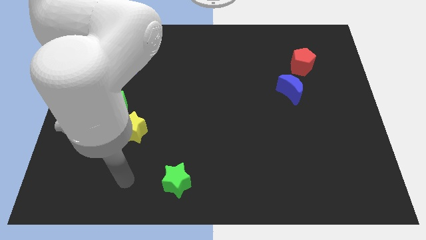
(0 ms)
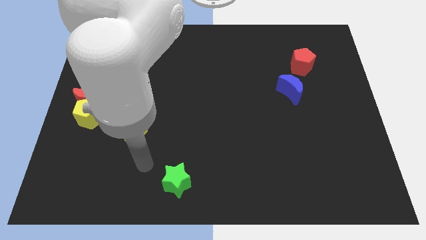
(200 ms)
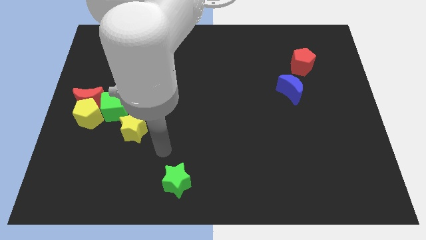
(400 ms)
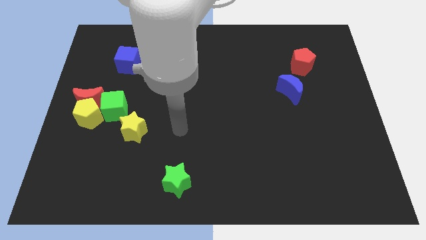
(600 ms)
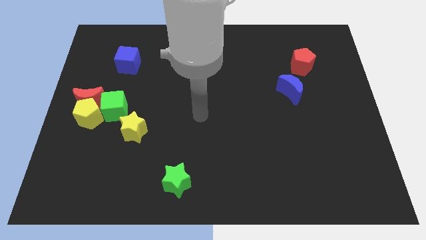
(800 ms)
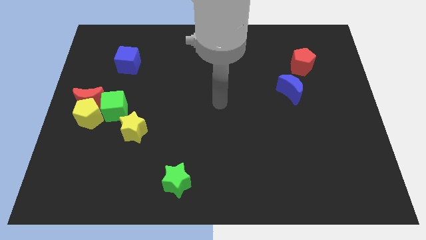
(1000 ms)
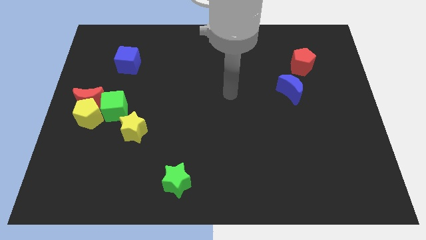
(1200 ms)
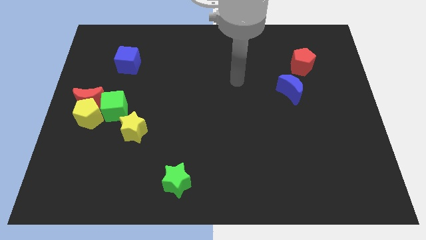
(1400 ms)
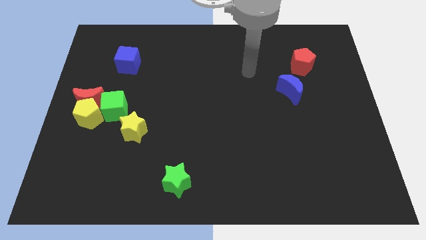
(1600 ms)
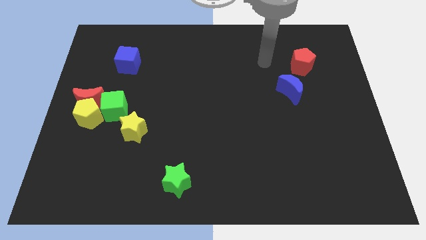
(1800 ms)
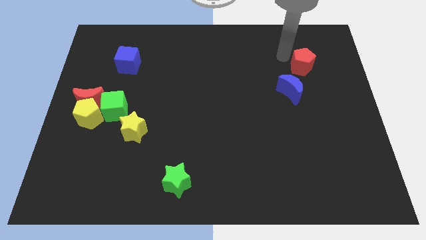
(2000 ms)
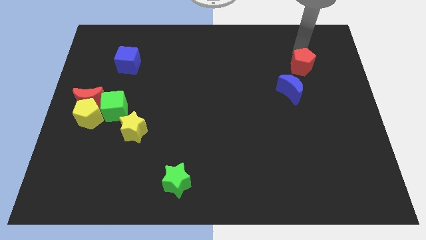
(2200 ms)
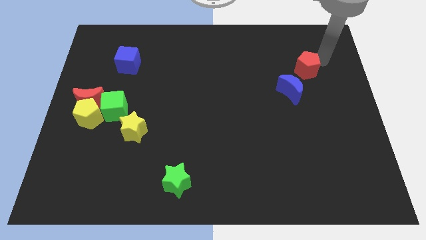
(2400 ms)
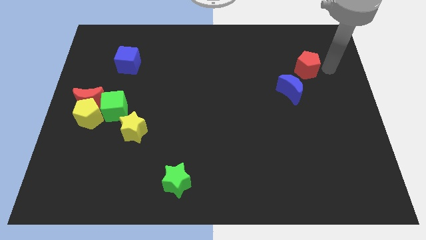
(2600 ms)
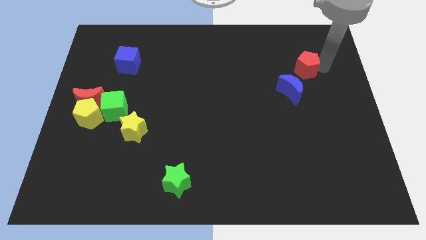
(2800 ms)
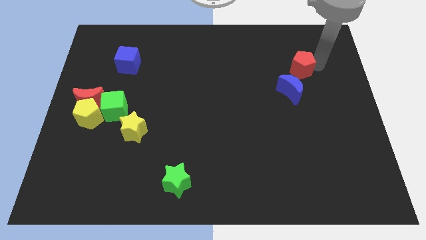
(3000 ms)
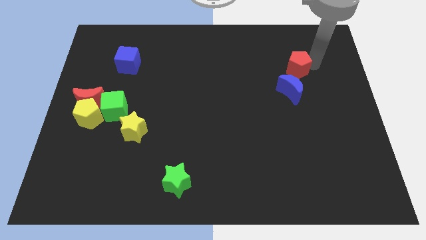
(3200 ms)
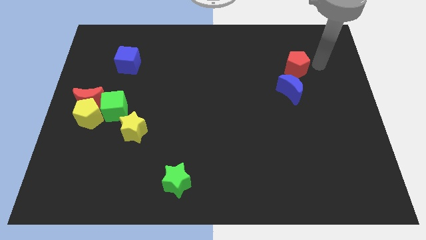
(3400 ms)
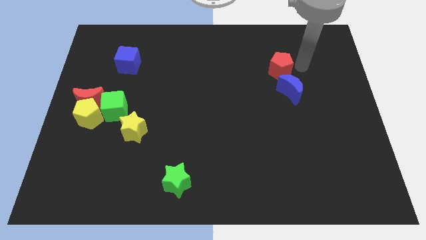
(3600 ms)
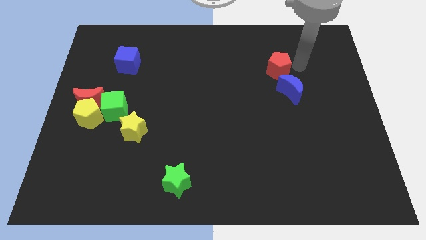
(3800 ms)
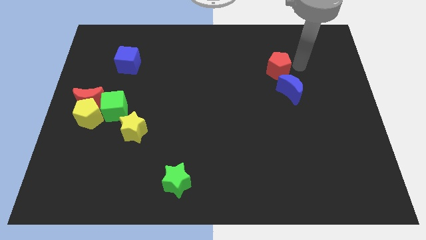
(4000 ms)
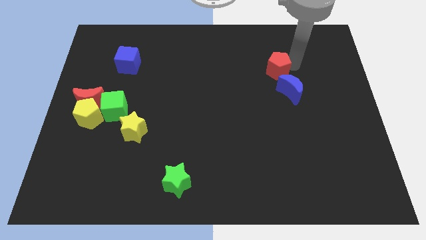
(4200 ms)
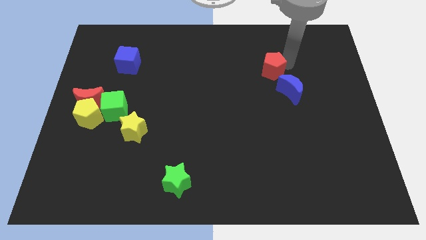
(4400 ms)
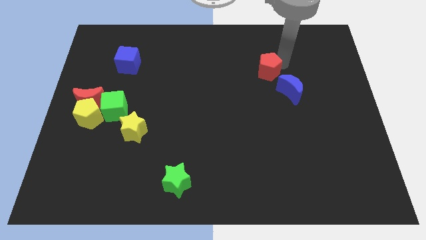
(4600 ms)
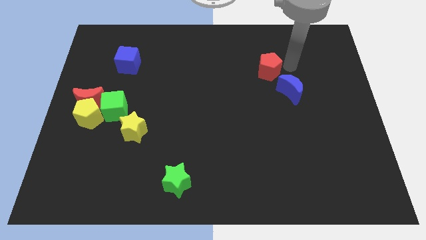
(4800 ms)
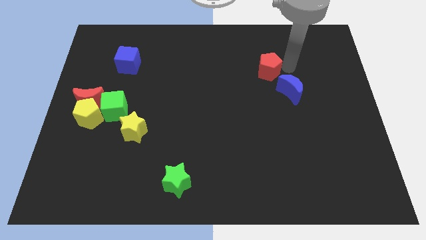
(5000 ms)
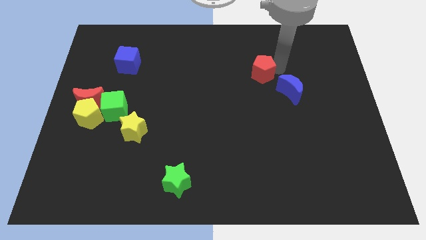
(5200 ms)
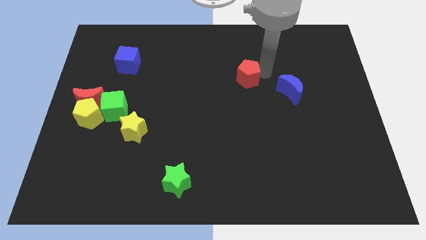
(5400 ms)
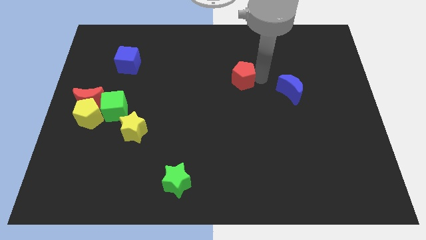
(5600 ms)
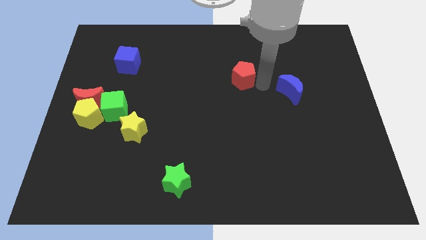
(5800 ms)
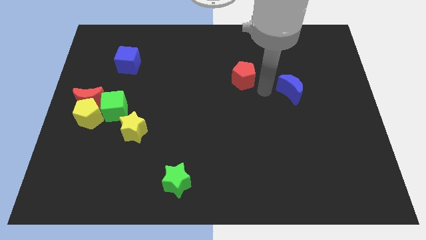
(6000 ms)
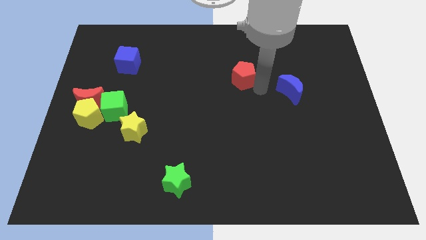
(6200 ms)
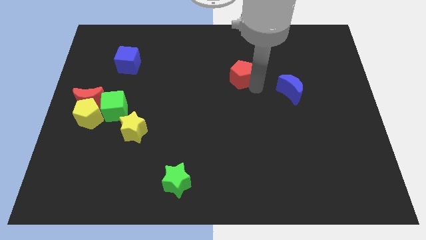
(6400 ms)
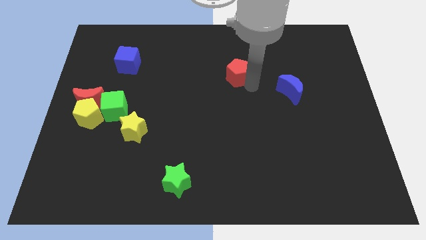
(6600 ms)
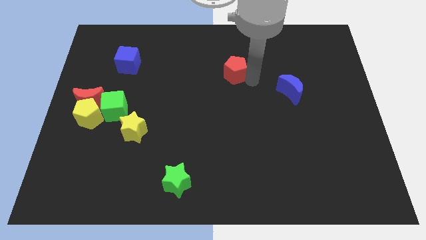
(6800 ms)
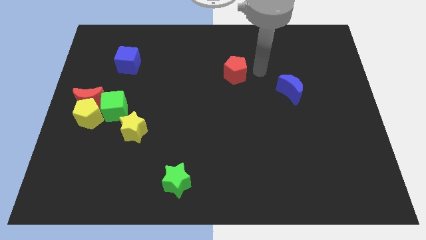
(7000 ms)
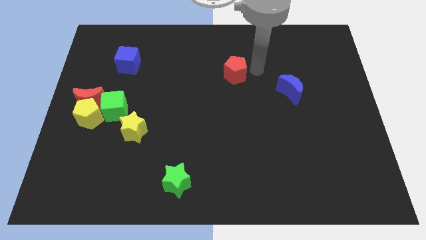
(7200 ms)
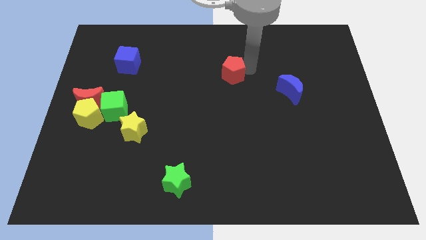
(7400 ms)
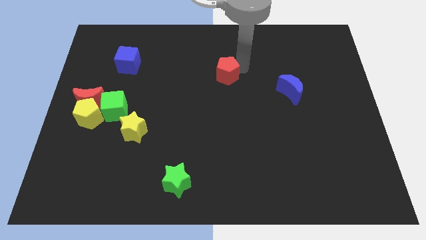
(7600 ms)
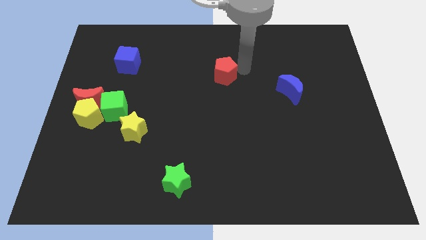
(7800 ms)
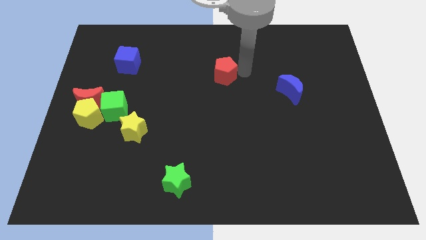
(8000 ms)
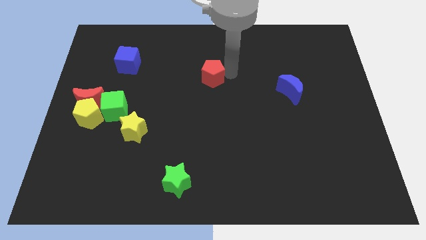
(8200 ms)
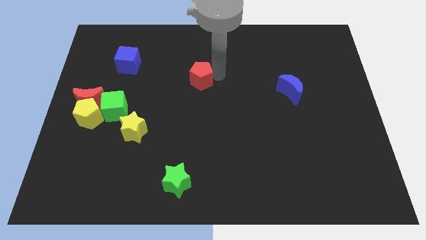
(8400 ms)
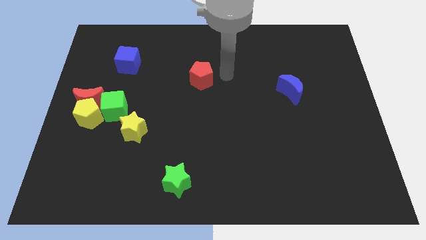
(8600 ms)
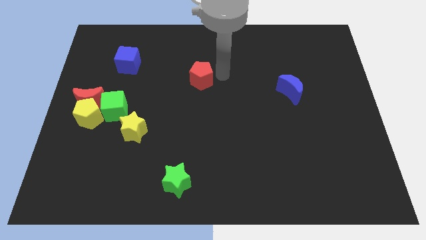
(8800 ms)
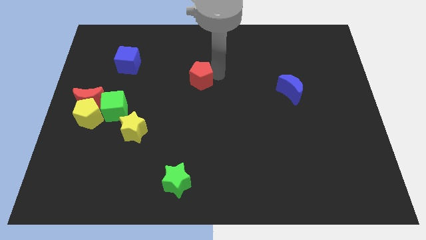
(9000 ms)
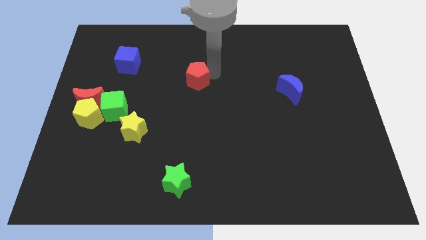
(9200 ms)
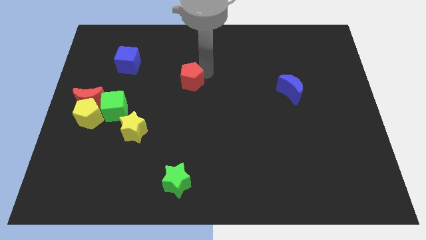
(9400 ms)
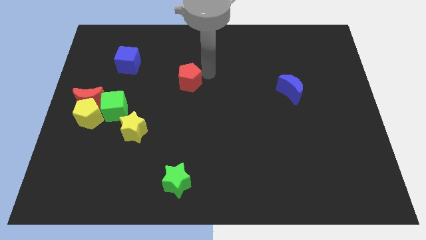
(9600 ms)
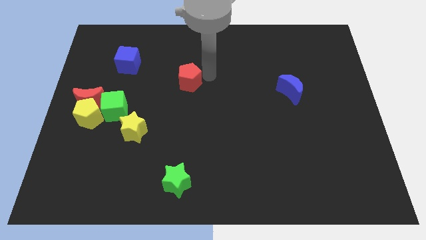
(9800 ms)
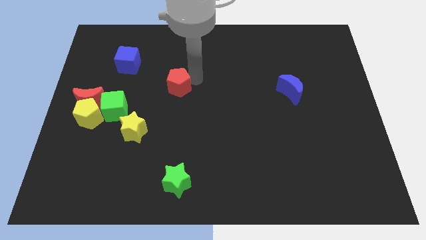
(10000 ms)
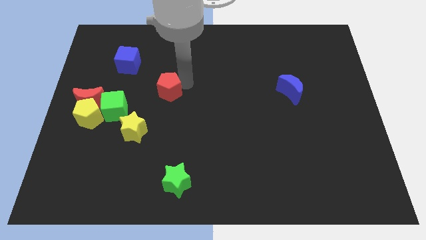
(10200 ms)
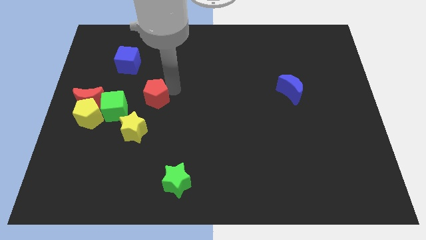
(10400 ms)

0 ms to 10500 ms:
put the red pentagon to the top side of the yellow star

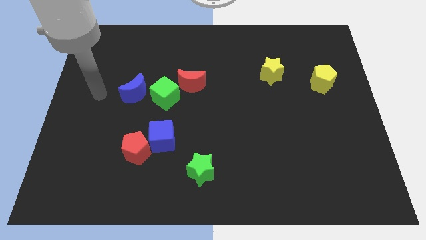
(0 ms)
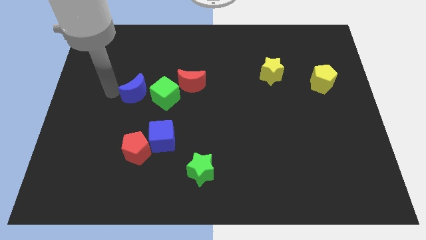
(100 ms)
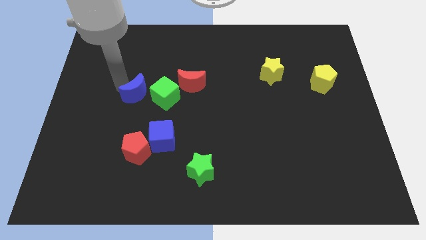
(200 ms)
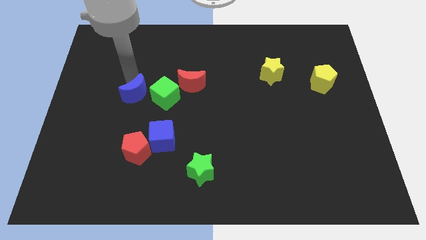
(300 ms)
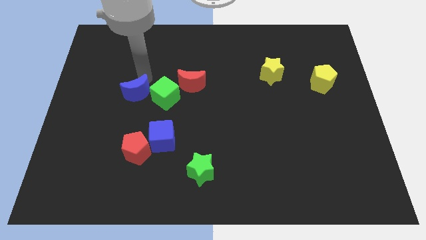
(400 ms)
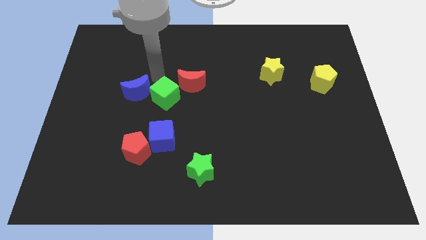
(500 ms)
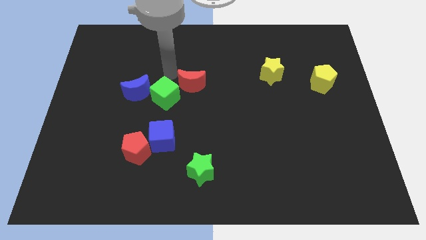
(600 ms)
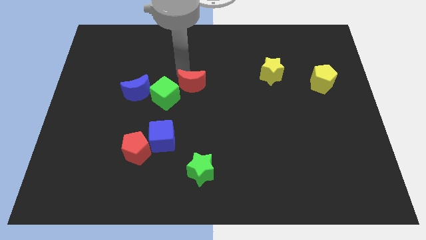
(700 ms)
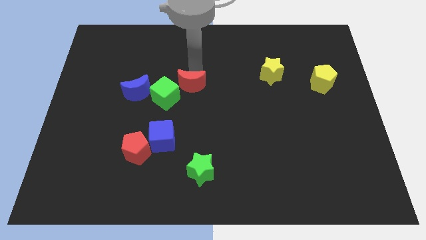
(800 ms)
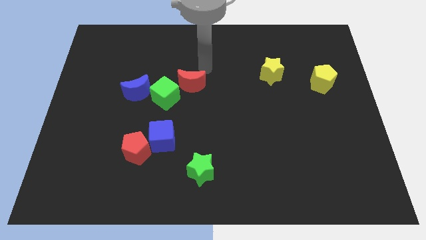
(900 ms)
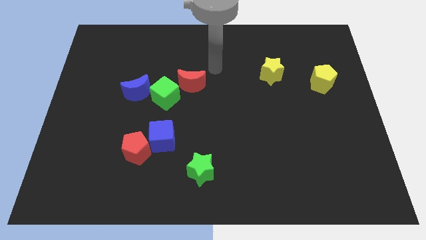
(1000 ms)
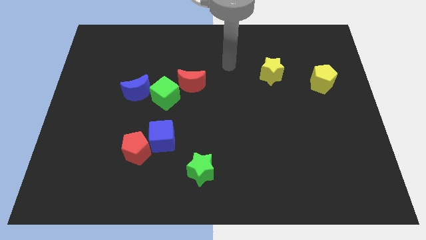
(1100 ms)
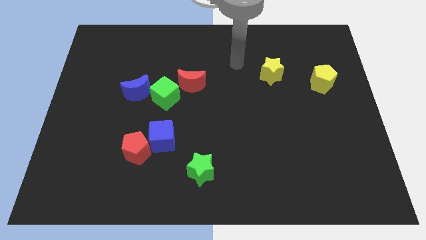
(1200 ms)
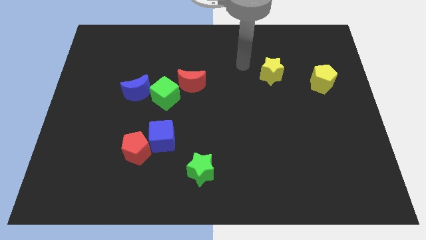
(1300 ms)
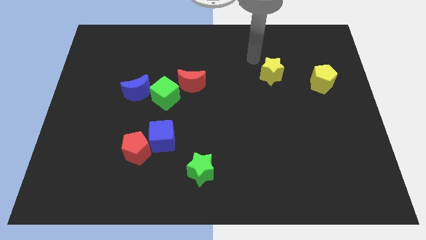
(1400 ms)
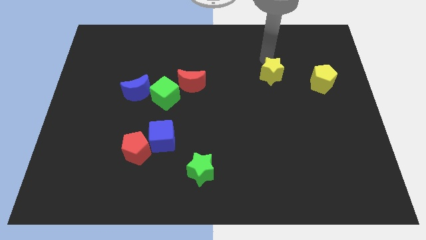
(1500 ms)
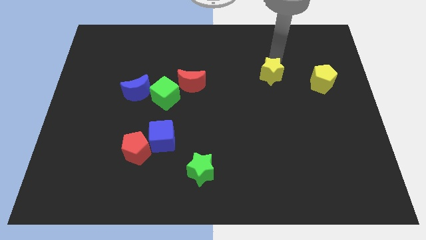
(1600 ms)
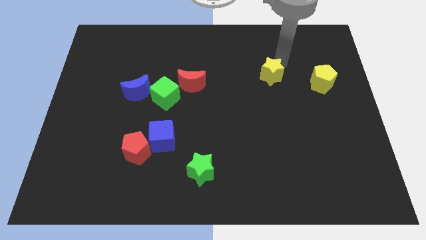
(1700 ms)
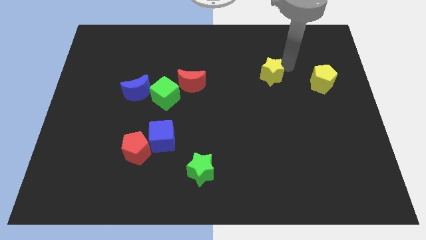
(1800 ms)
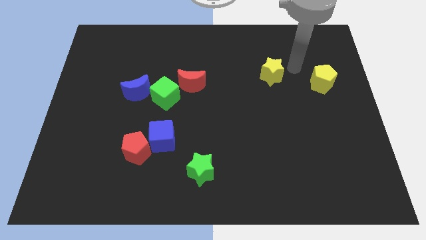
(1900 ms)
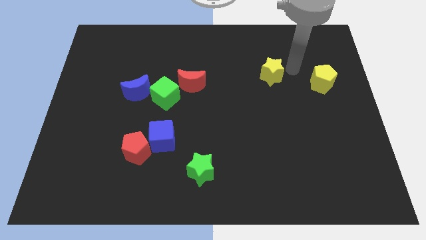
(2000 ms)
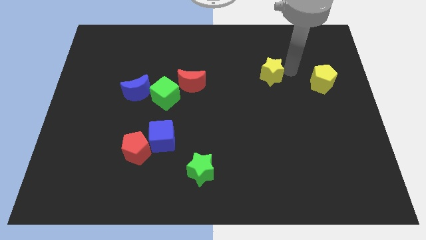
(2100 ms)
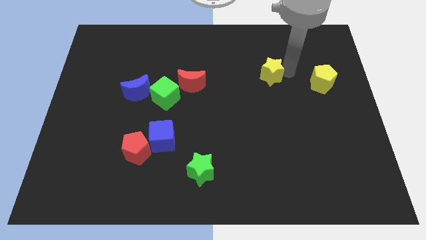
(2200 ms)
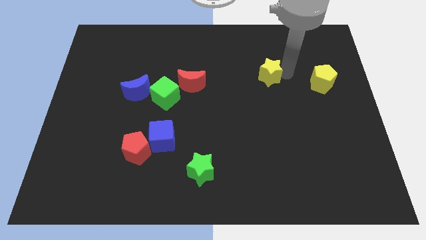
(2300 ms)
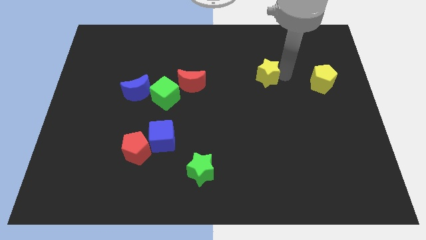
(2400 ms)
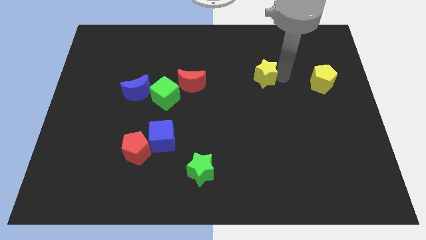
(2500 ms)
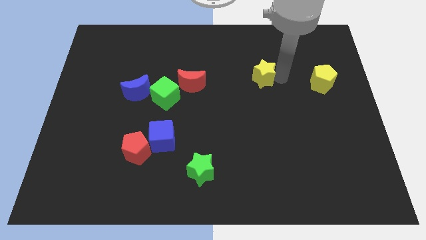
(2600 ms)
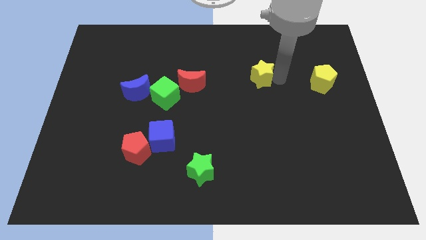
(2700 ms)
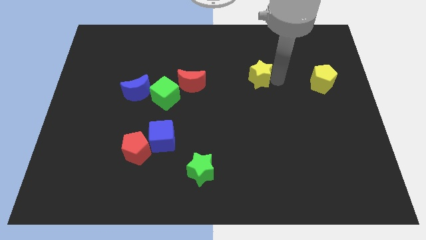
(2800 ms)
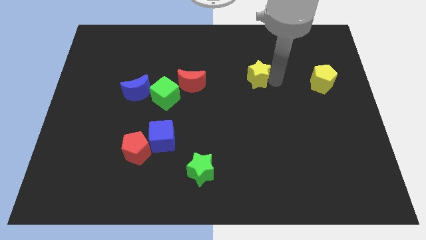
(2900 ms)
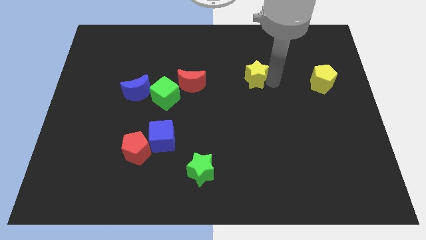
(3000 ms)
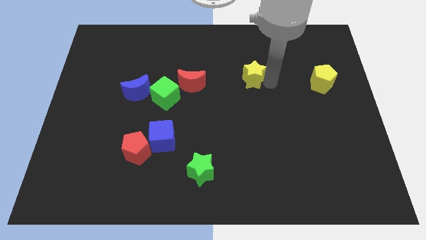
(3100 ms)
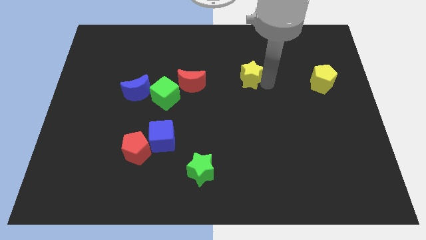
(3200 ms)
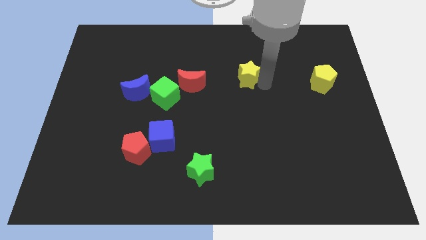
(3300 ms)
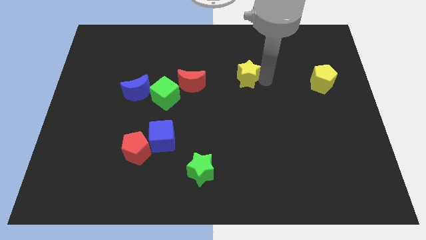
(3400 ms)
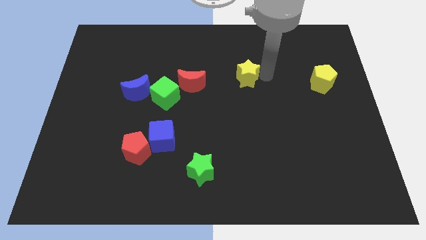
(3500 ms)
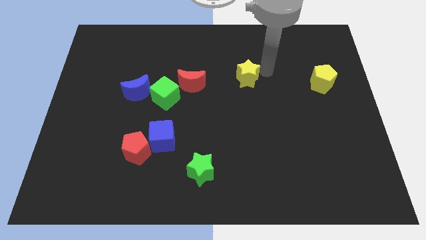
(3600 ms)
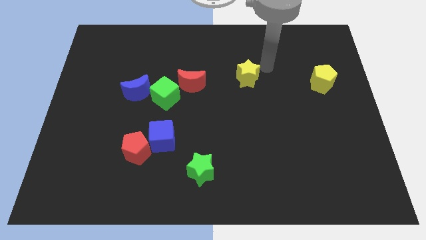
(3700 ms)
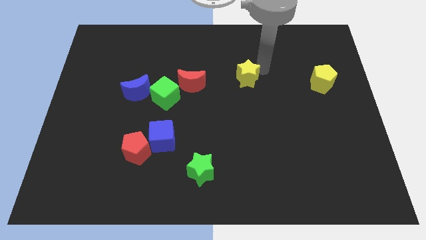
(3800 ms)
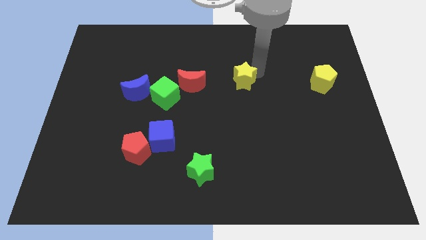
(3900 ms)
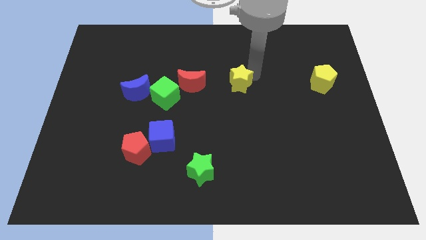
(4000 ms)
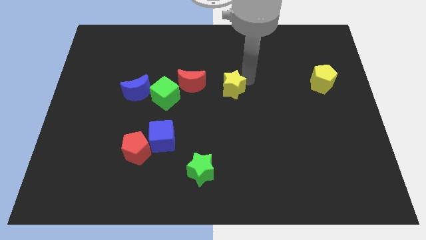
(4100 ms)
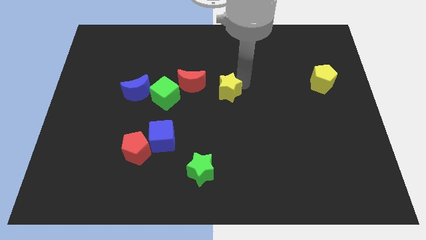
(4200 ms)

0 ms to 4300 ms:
push the yellow star right of the green cube
